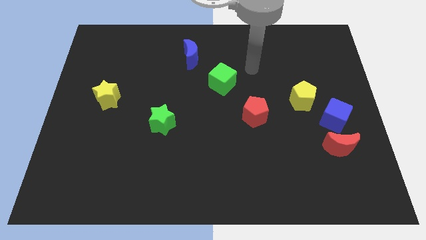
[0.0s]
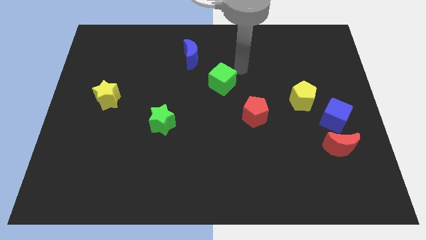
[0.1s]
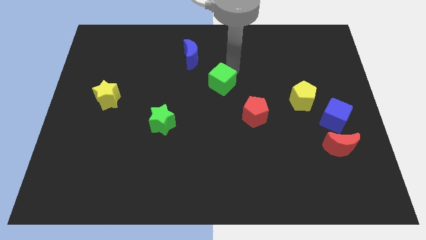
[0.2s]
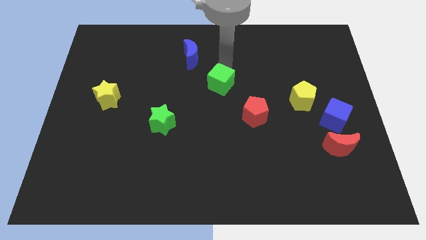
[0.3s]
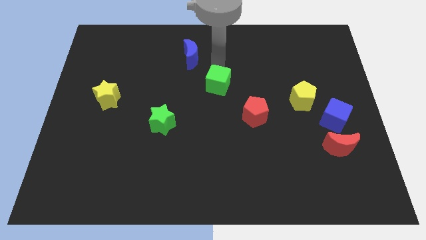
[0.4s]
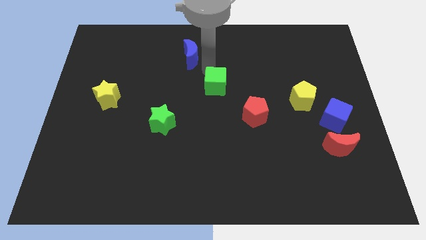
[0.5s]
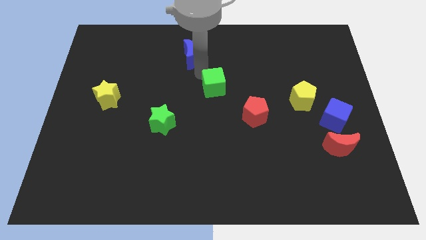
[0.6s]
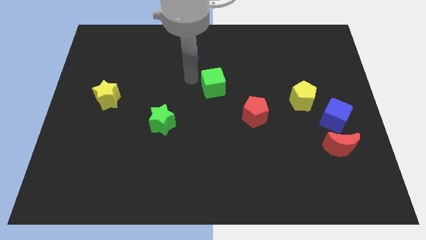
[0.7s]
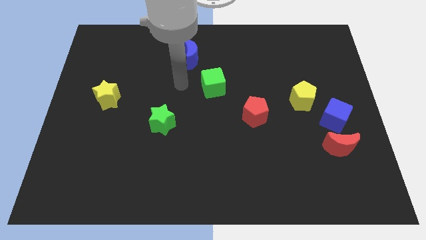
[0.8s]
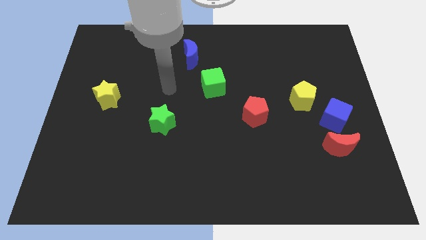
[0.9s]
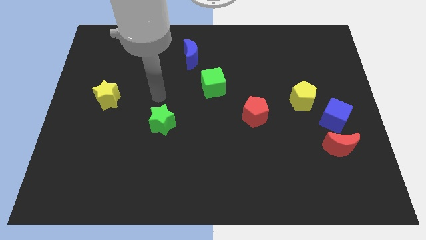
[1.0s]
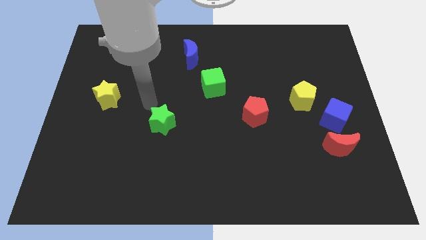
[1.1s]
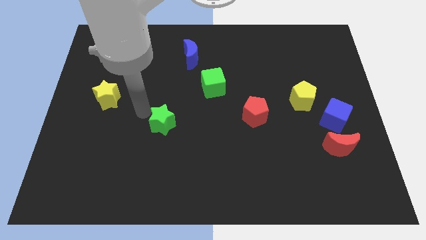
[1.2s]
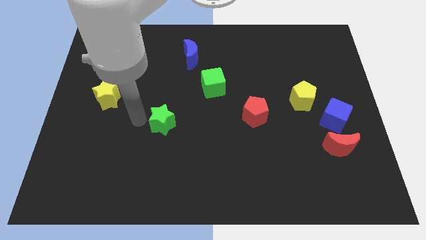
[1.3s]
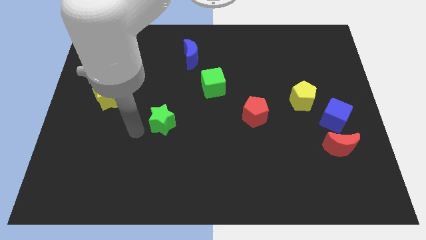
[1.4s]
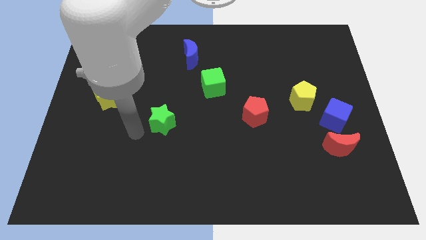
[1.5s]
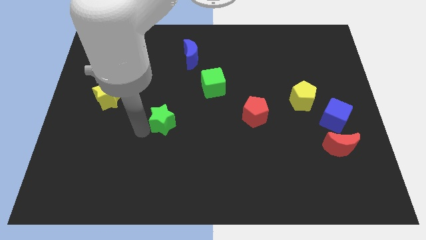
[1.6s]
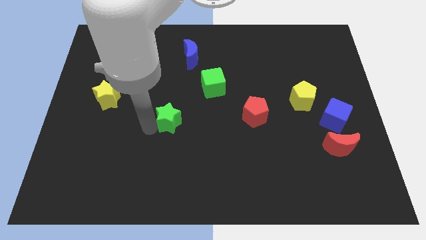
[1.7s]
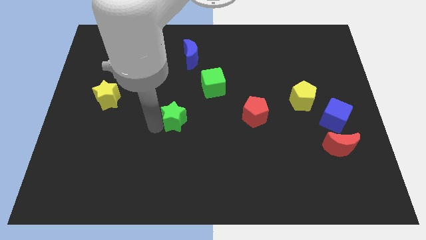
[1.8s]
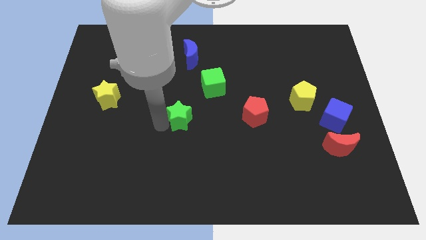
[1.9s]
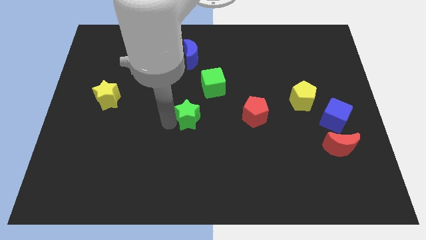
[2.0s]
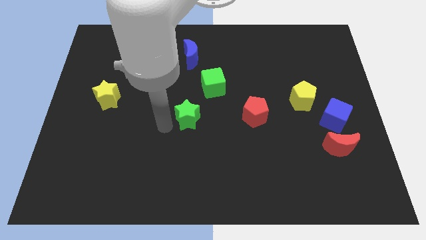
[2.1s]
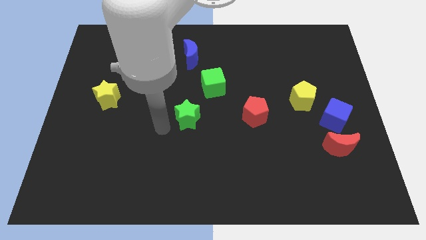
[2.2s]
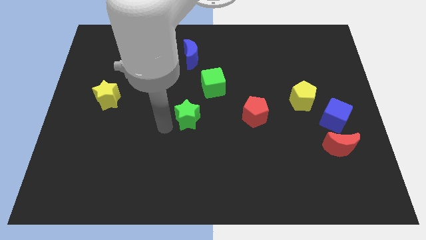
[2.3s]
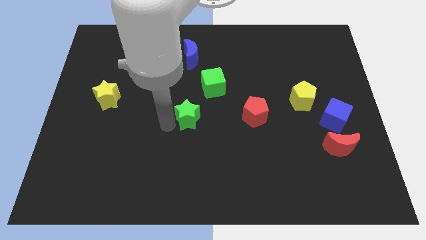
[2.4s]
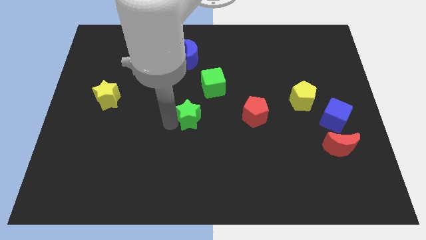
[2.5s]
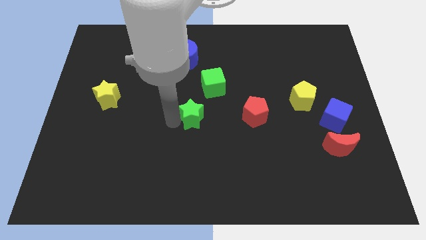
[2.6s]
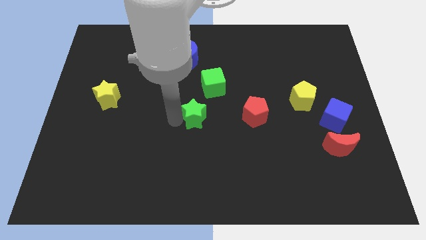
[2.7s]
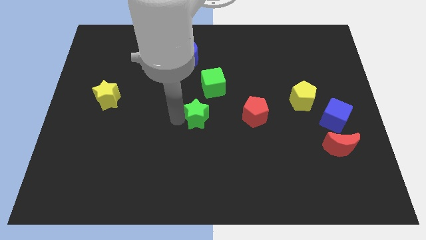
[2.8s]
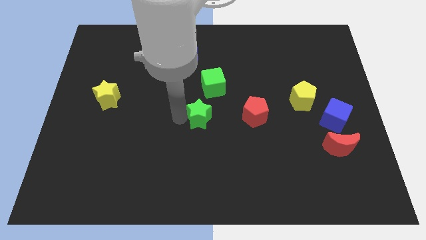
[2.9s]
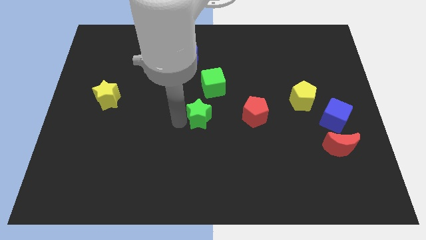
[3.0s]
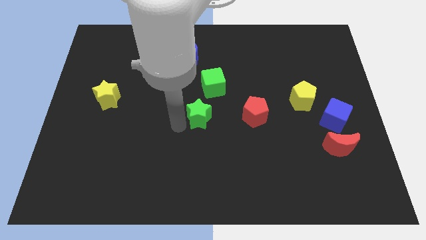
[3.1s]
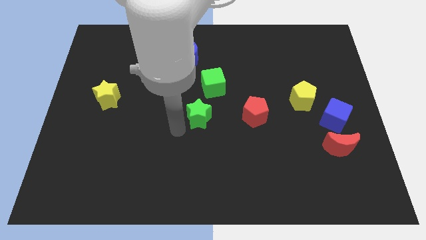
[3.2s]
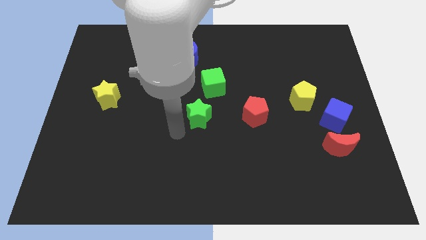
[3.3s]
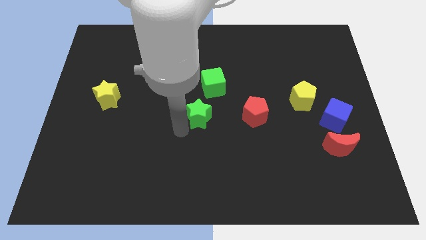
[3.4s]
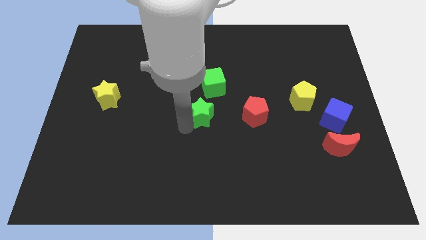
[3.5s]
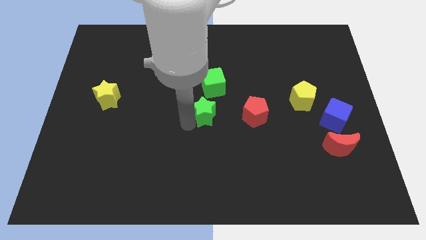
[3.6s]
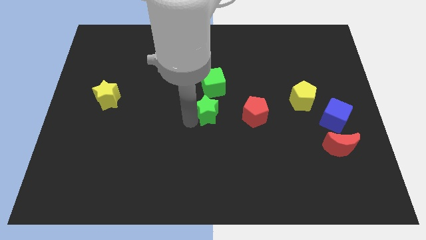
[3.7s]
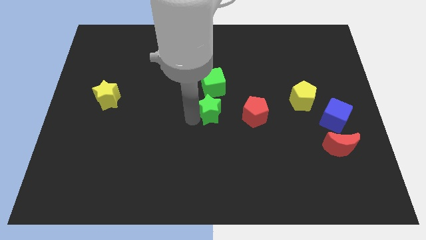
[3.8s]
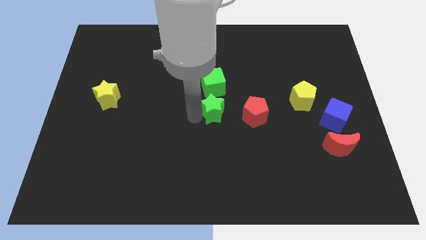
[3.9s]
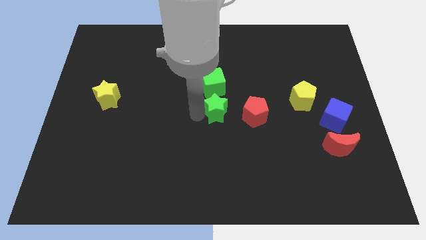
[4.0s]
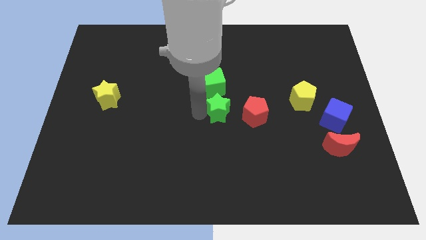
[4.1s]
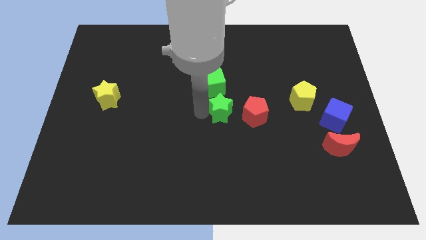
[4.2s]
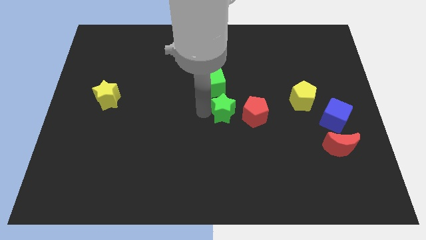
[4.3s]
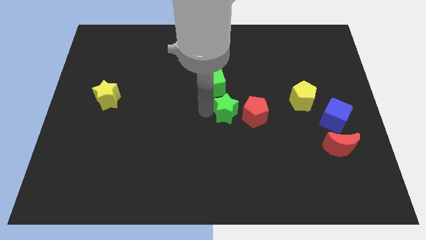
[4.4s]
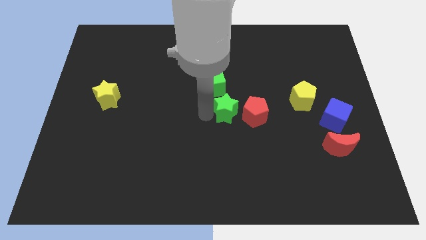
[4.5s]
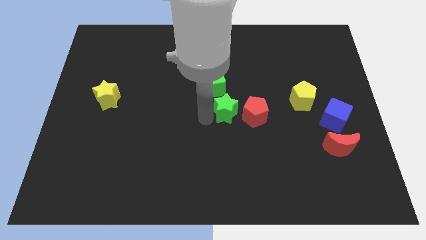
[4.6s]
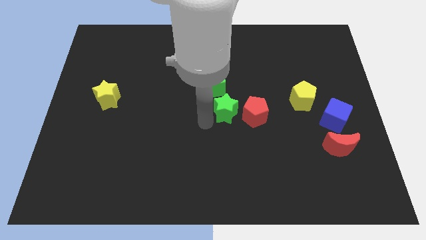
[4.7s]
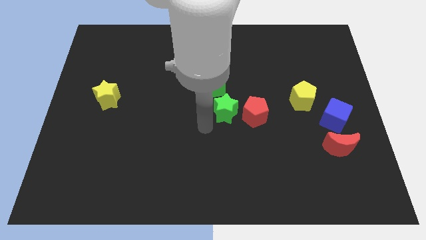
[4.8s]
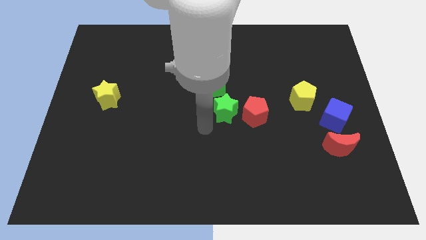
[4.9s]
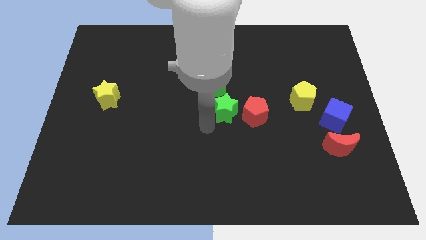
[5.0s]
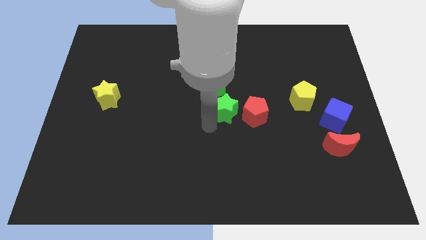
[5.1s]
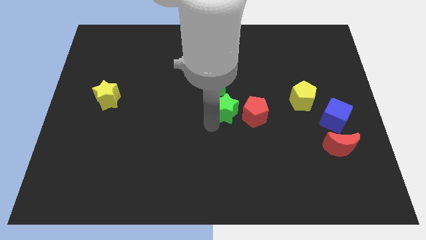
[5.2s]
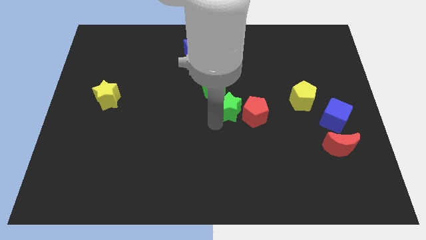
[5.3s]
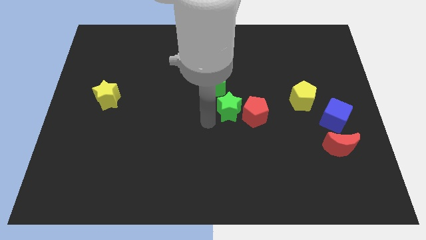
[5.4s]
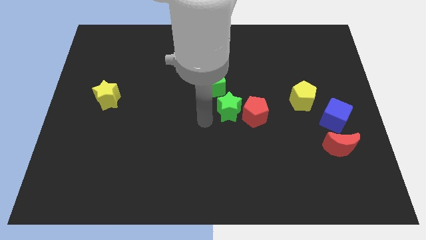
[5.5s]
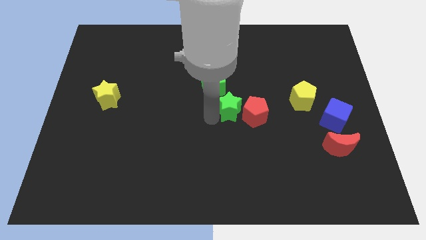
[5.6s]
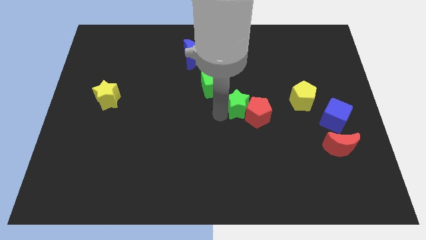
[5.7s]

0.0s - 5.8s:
push the green star just left of the yellow pentagon

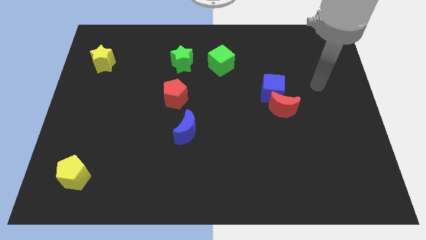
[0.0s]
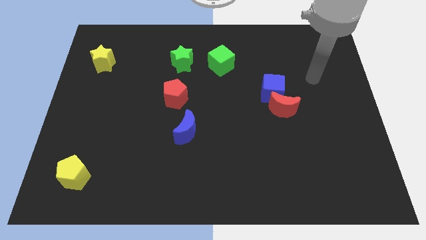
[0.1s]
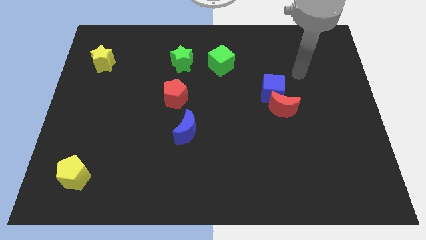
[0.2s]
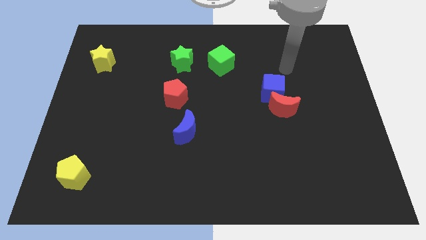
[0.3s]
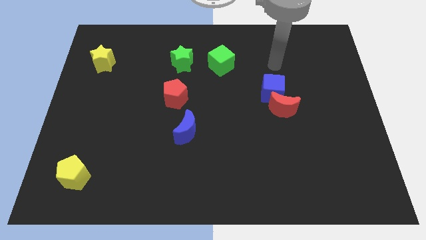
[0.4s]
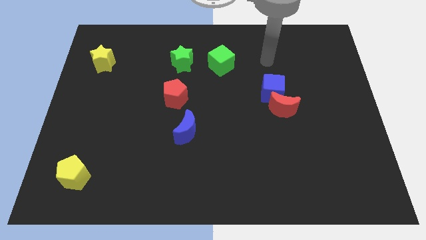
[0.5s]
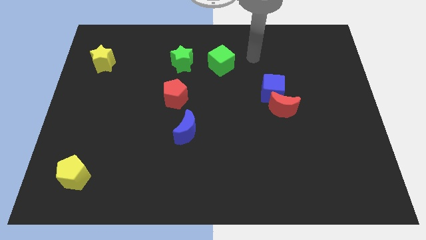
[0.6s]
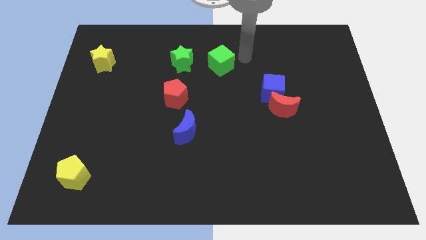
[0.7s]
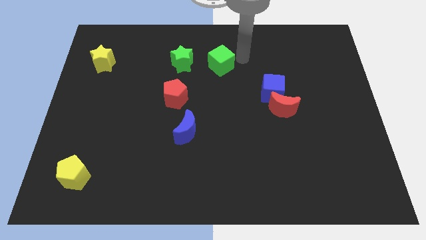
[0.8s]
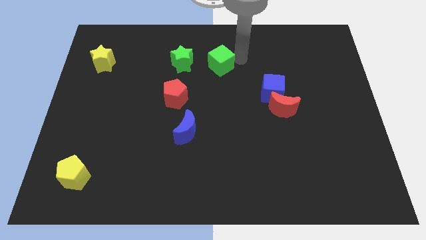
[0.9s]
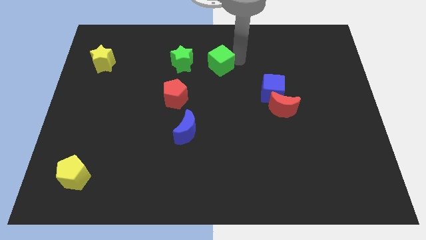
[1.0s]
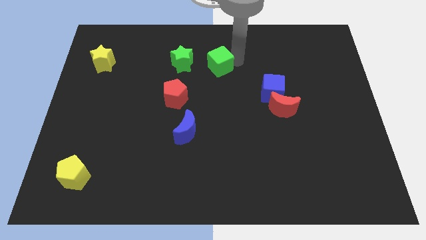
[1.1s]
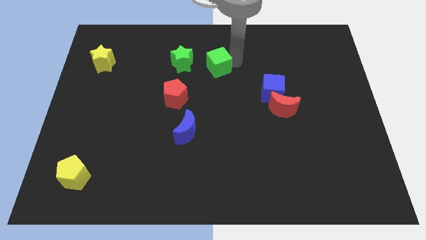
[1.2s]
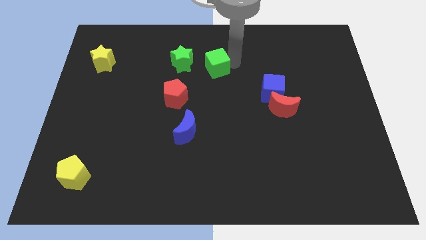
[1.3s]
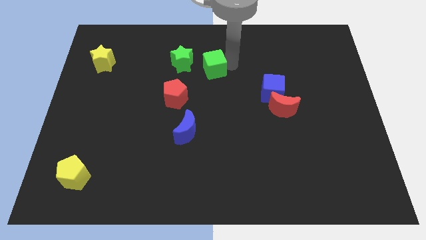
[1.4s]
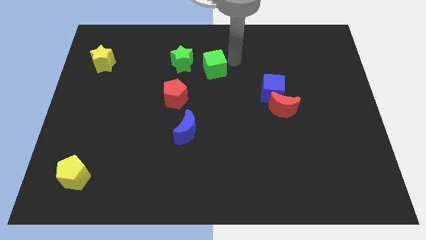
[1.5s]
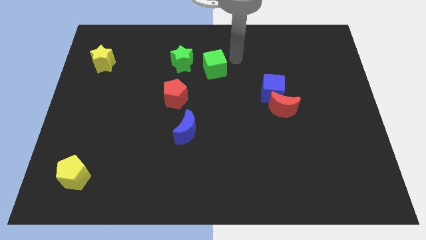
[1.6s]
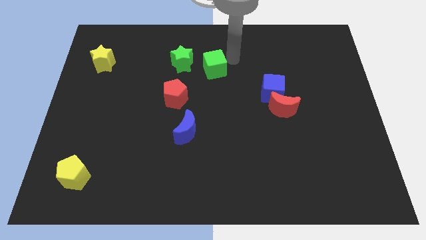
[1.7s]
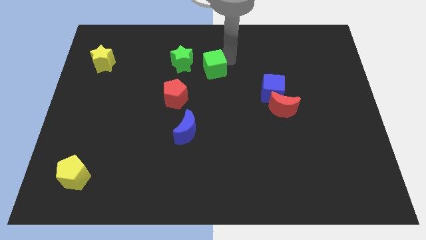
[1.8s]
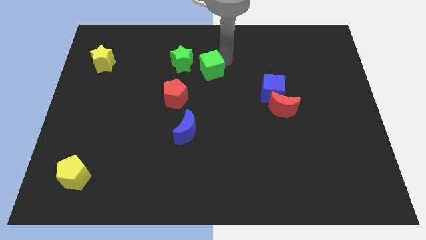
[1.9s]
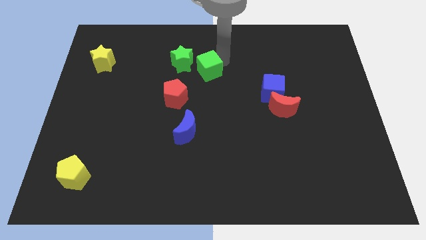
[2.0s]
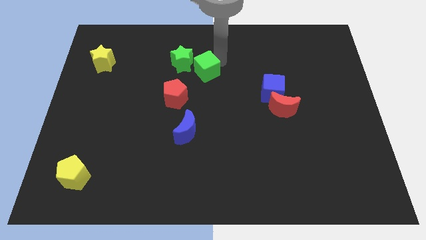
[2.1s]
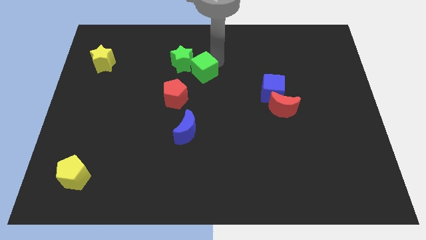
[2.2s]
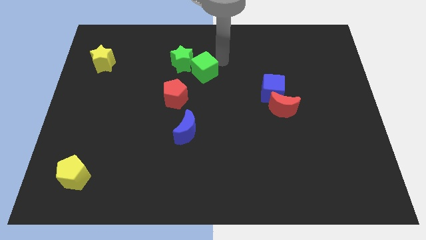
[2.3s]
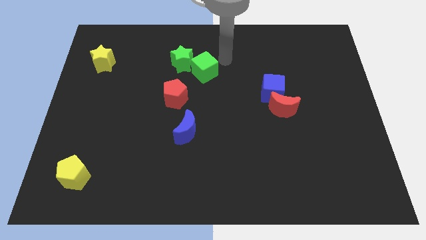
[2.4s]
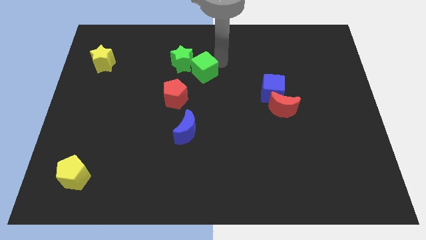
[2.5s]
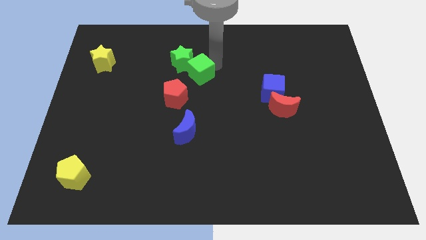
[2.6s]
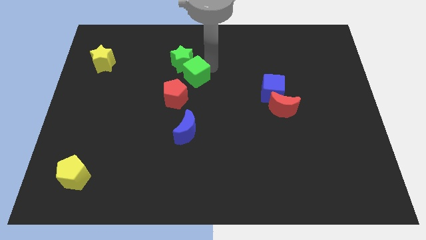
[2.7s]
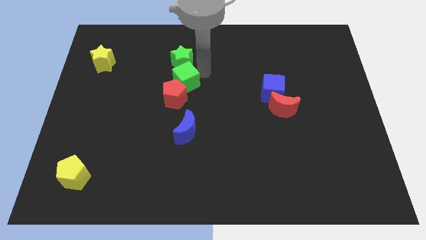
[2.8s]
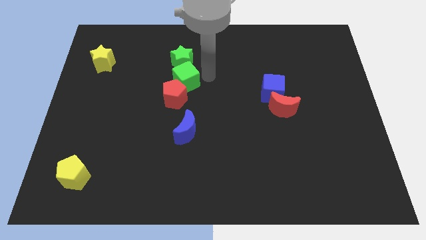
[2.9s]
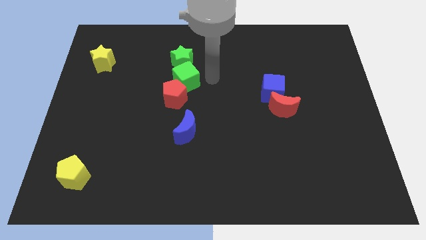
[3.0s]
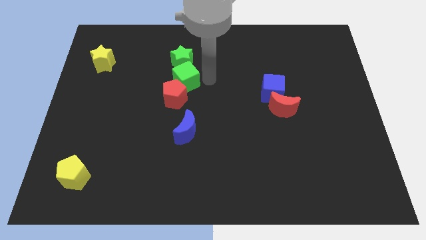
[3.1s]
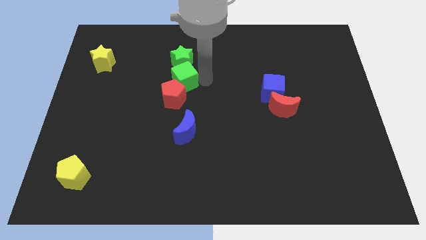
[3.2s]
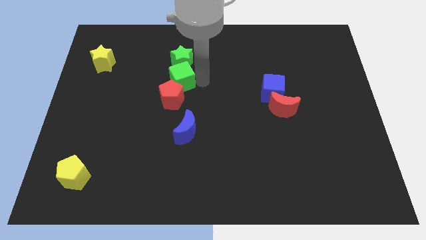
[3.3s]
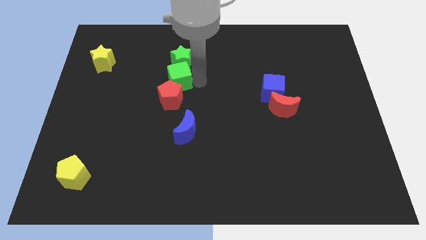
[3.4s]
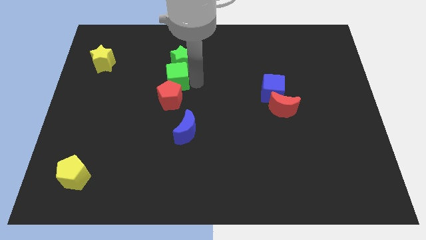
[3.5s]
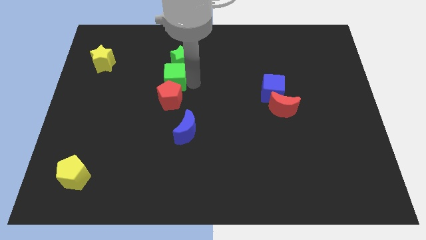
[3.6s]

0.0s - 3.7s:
put the green cube diagonally up and to the left of the red pentagon
